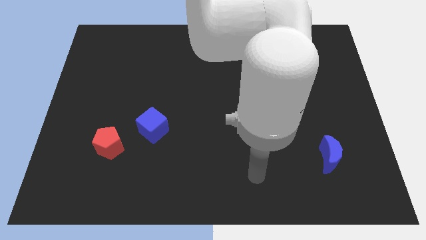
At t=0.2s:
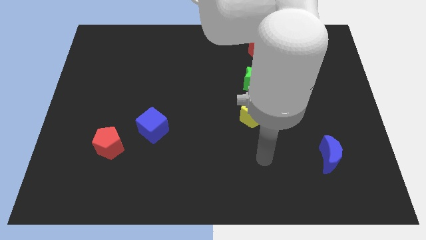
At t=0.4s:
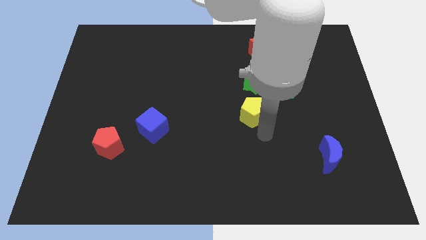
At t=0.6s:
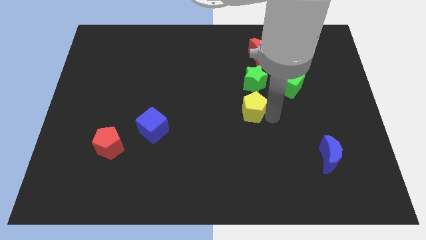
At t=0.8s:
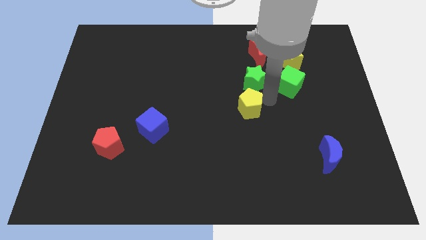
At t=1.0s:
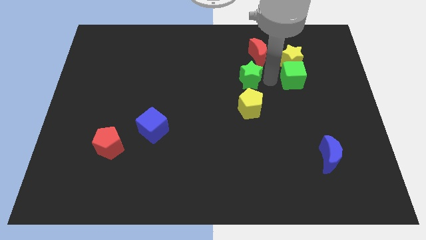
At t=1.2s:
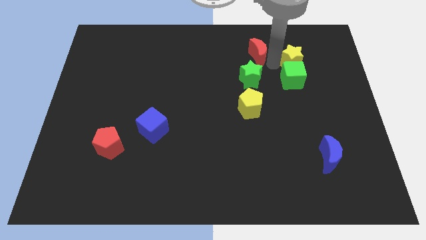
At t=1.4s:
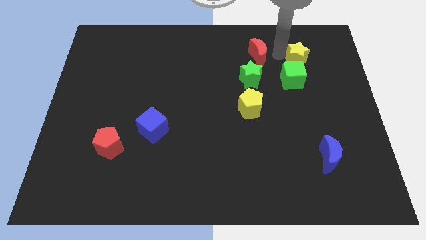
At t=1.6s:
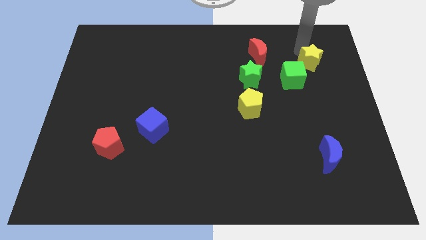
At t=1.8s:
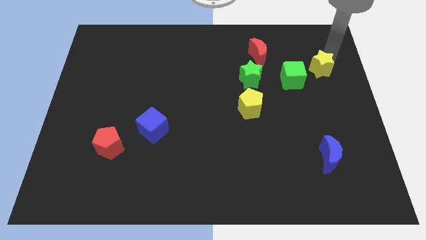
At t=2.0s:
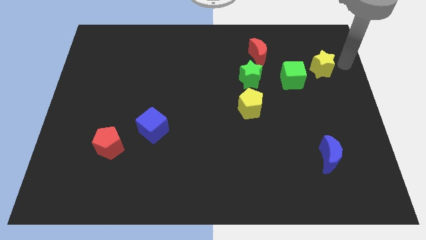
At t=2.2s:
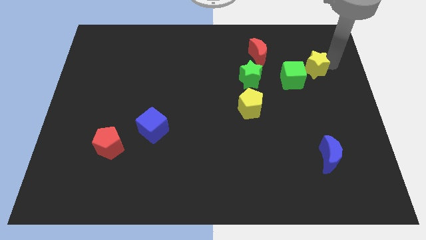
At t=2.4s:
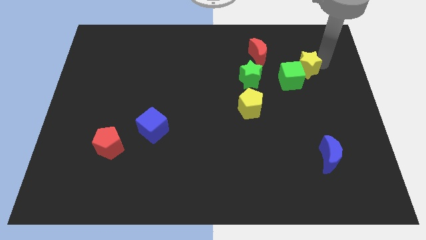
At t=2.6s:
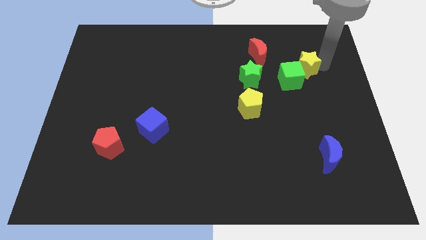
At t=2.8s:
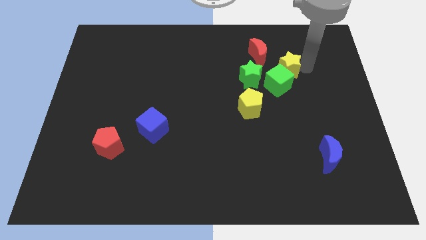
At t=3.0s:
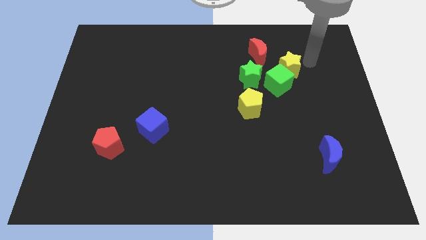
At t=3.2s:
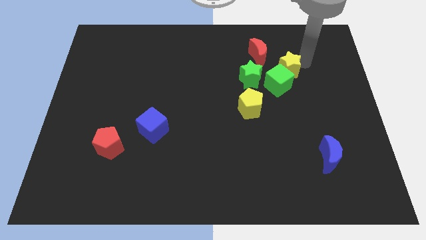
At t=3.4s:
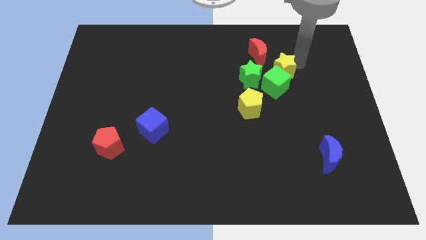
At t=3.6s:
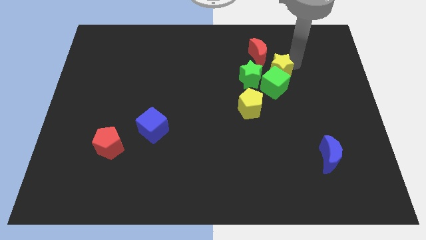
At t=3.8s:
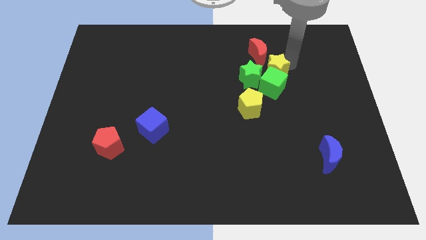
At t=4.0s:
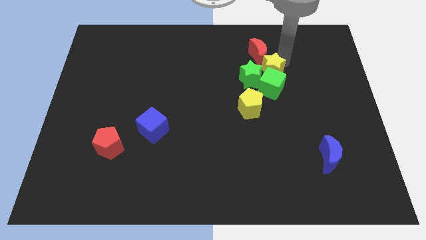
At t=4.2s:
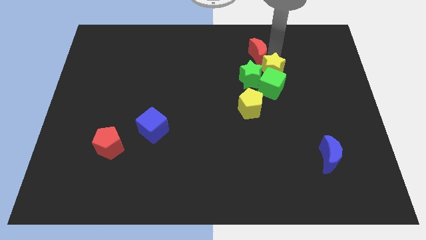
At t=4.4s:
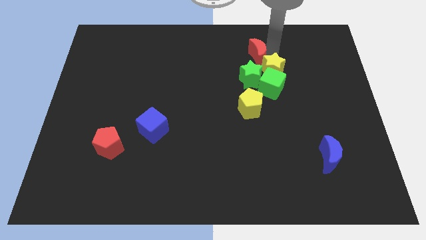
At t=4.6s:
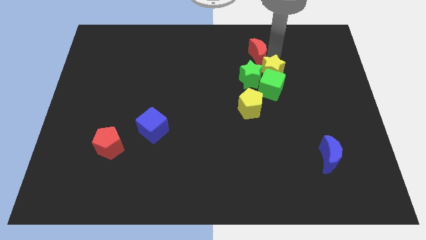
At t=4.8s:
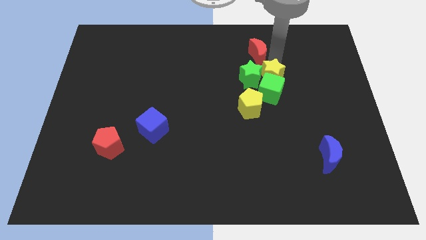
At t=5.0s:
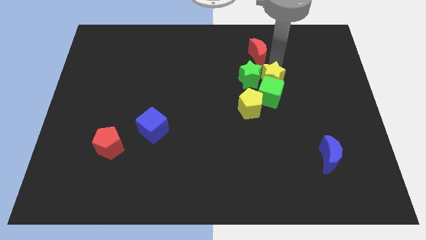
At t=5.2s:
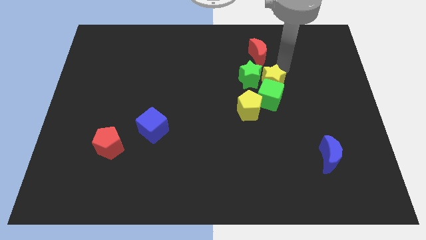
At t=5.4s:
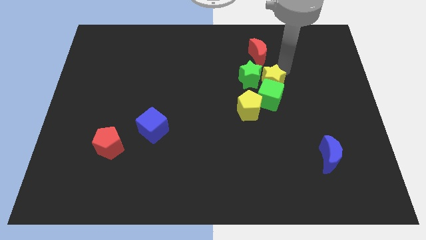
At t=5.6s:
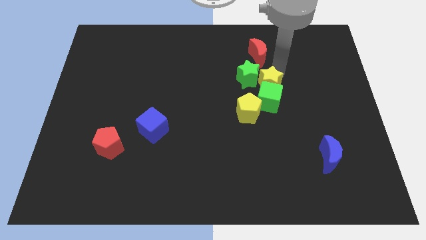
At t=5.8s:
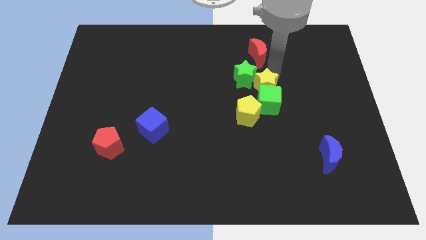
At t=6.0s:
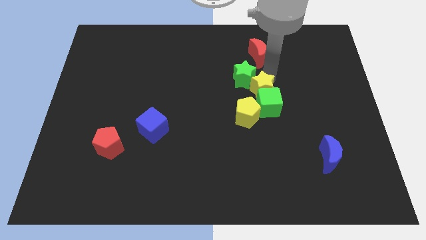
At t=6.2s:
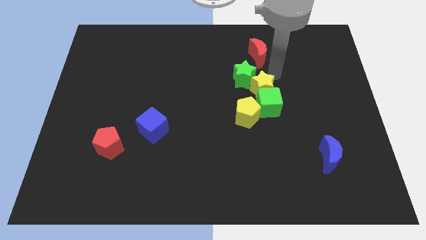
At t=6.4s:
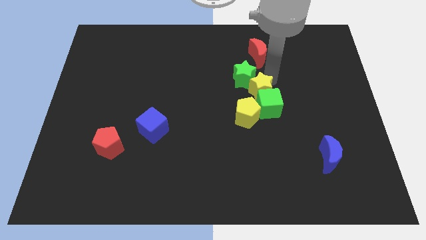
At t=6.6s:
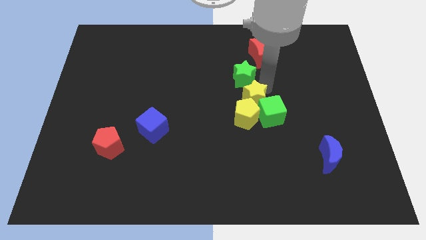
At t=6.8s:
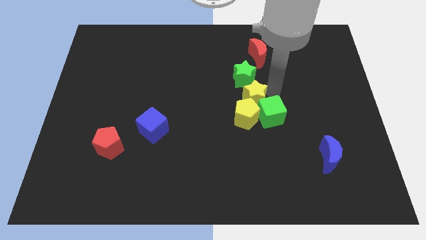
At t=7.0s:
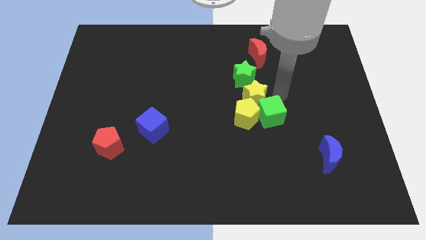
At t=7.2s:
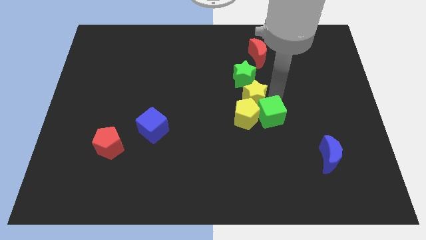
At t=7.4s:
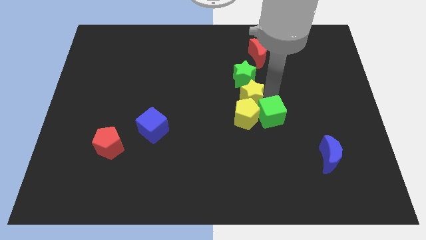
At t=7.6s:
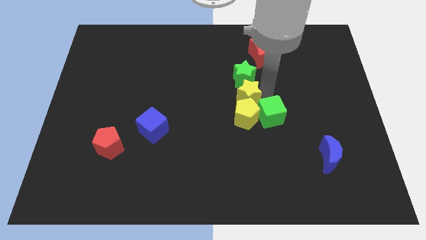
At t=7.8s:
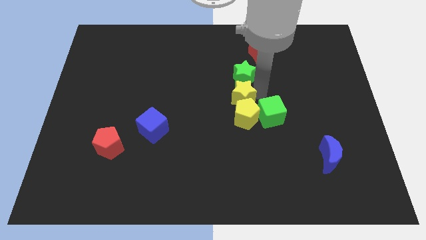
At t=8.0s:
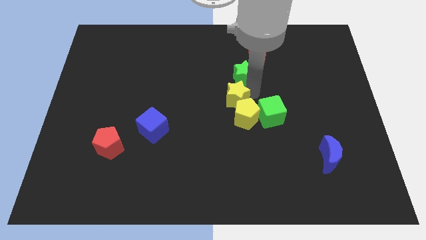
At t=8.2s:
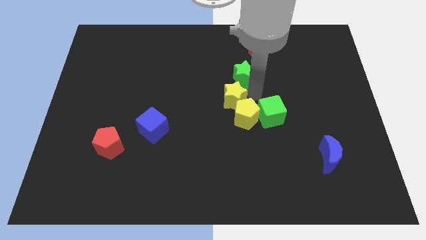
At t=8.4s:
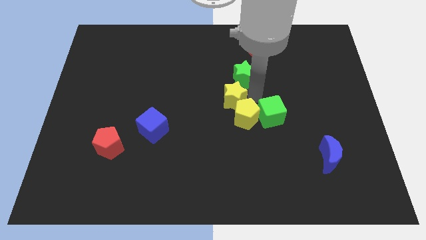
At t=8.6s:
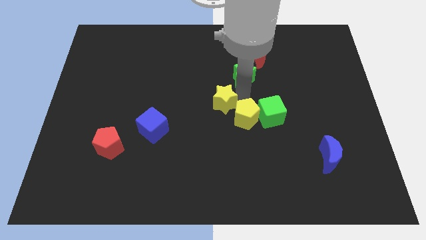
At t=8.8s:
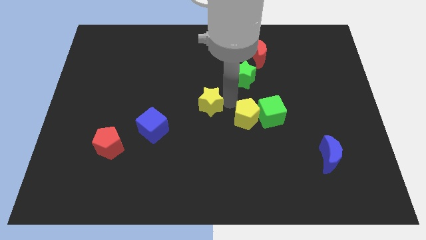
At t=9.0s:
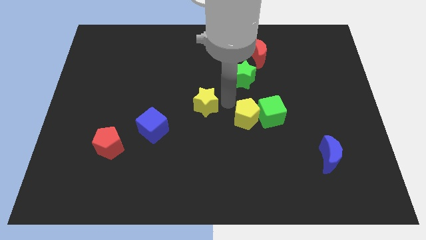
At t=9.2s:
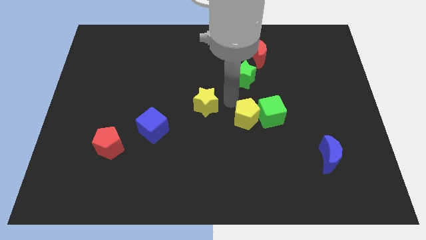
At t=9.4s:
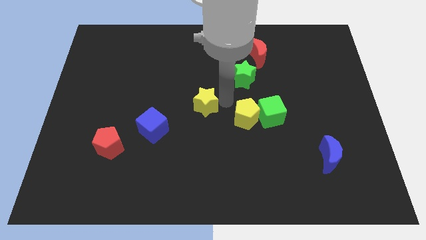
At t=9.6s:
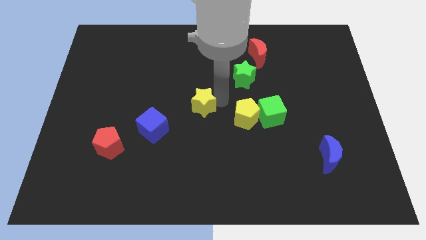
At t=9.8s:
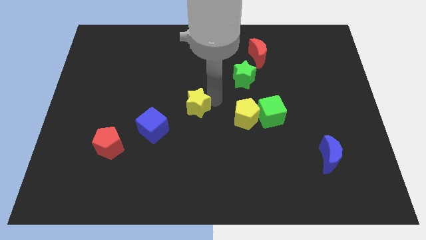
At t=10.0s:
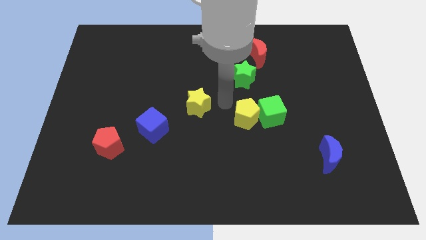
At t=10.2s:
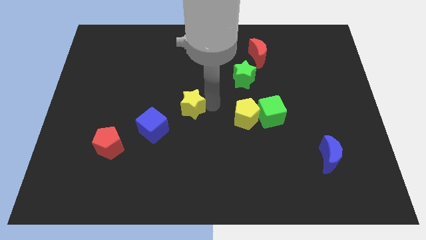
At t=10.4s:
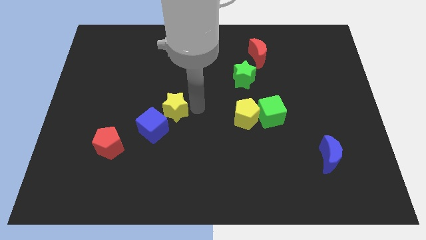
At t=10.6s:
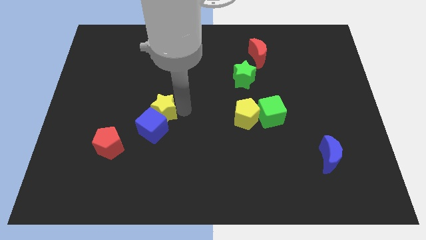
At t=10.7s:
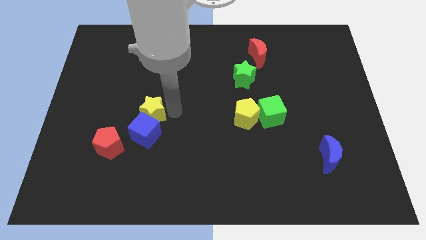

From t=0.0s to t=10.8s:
slide the yellow star diagonally up and to the right of the red pentagon

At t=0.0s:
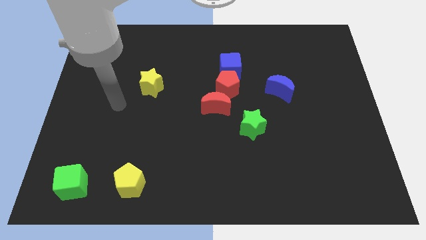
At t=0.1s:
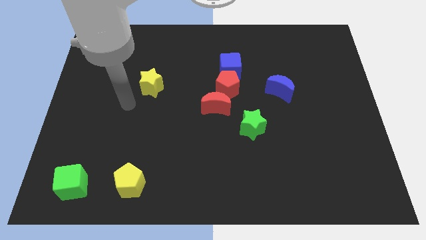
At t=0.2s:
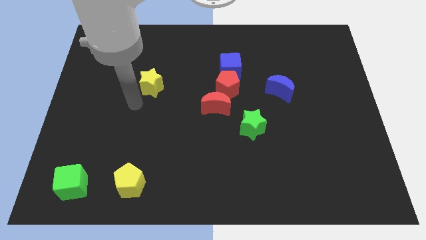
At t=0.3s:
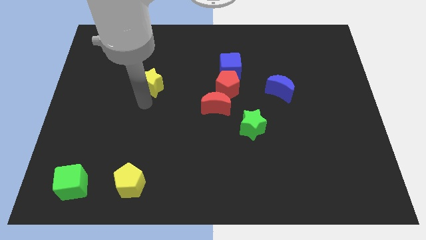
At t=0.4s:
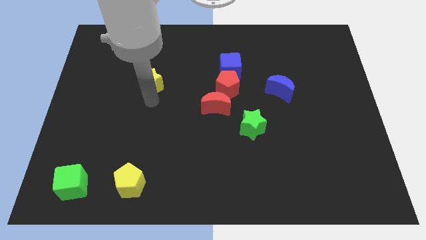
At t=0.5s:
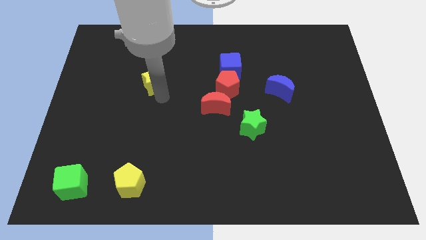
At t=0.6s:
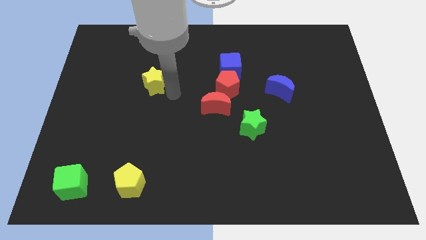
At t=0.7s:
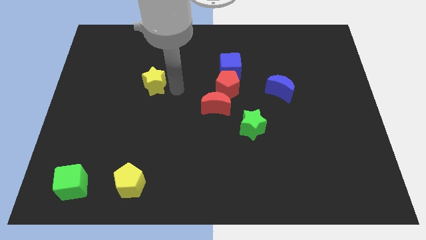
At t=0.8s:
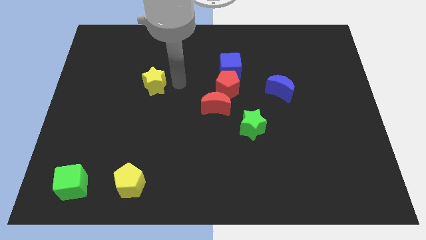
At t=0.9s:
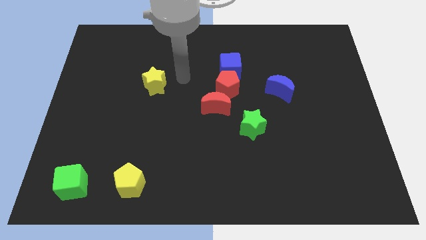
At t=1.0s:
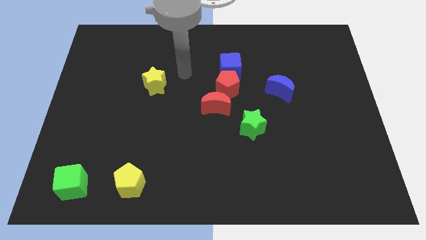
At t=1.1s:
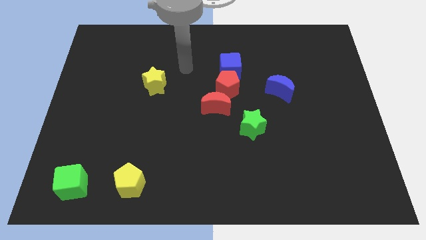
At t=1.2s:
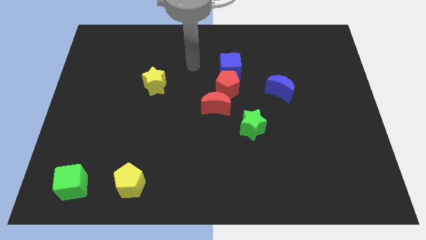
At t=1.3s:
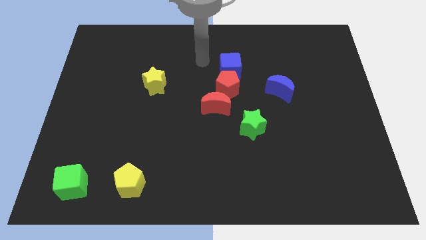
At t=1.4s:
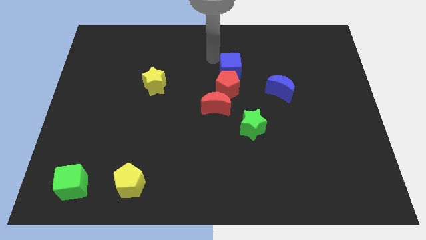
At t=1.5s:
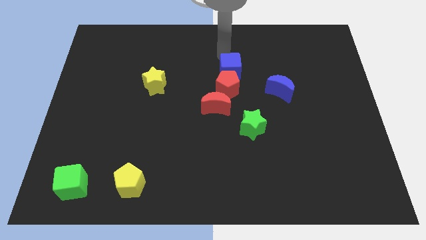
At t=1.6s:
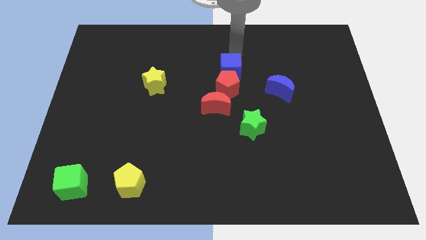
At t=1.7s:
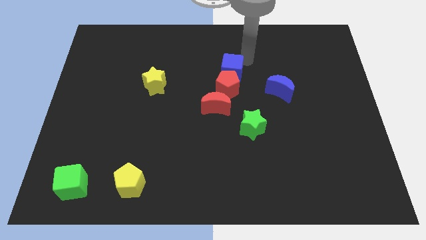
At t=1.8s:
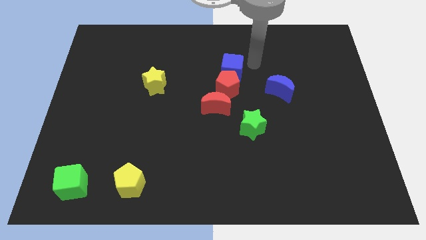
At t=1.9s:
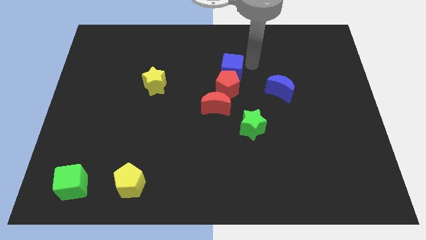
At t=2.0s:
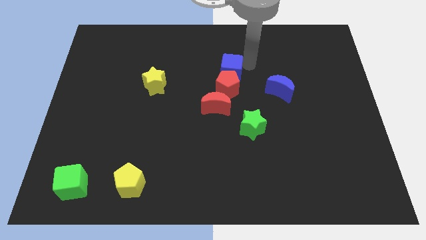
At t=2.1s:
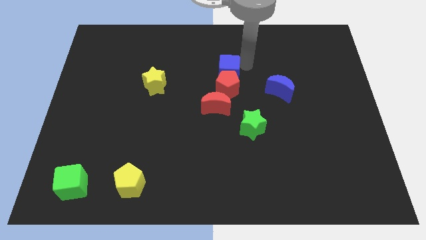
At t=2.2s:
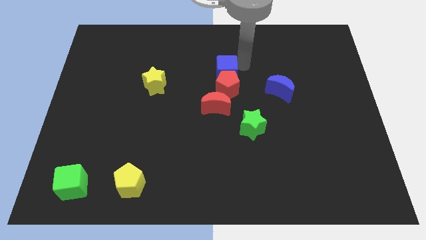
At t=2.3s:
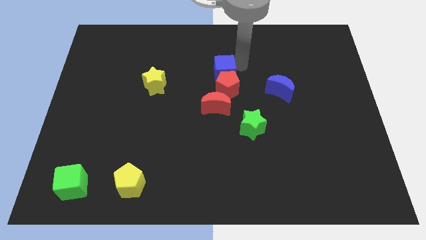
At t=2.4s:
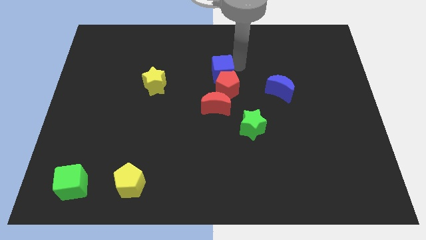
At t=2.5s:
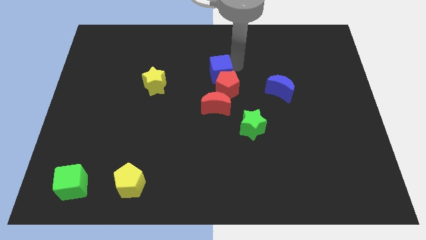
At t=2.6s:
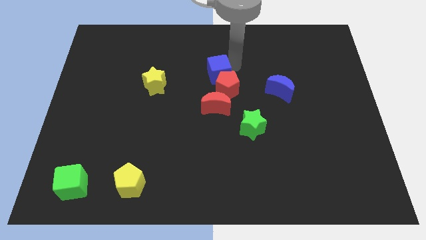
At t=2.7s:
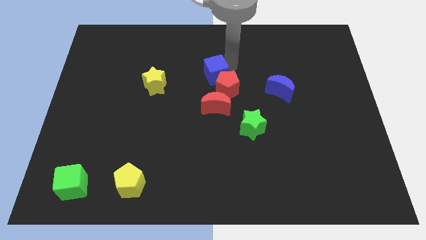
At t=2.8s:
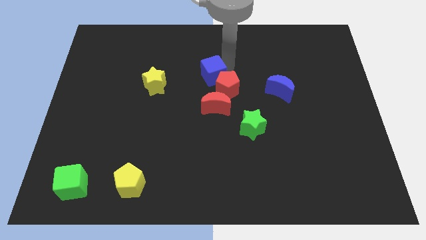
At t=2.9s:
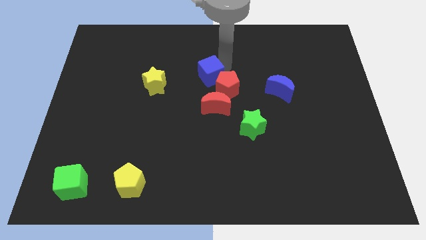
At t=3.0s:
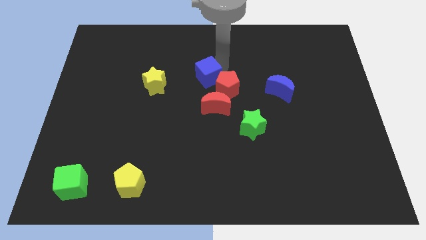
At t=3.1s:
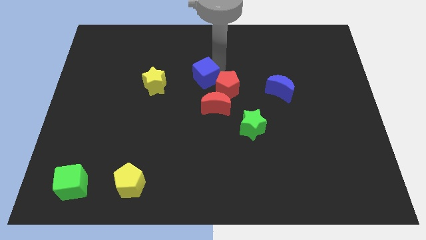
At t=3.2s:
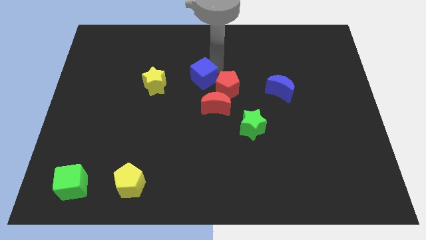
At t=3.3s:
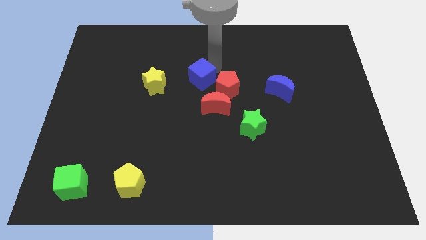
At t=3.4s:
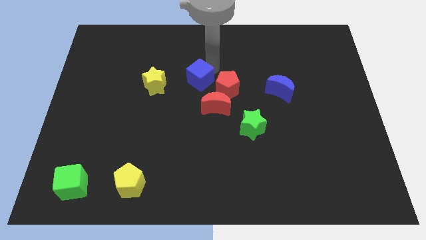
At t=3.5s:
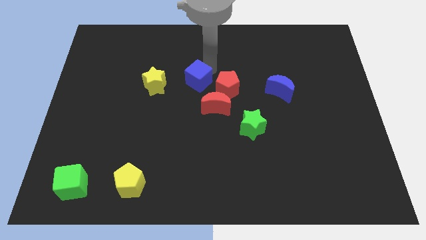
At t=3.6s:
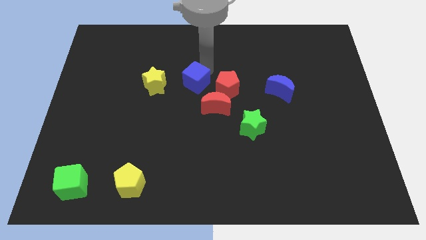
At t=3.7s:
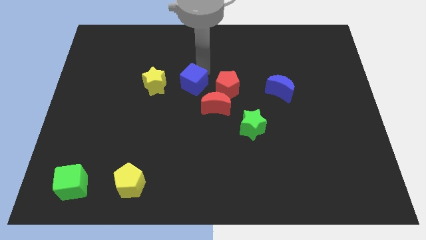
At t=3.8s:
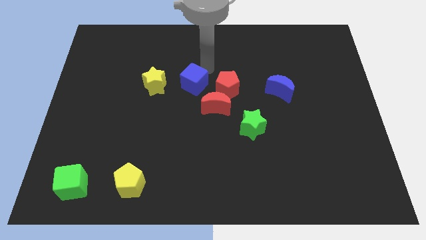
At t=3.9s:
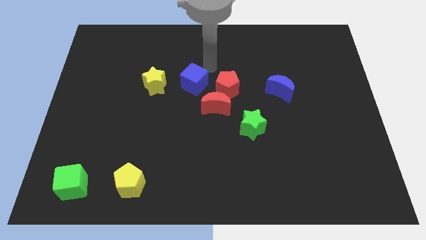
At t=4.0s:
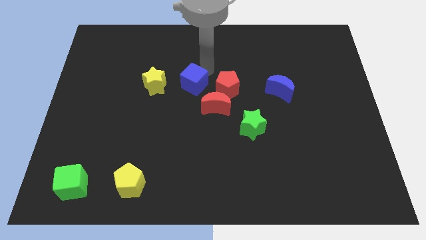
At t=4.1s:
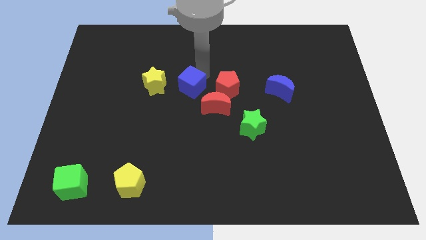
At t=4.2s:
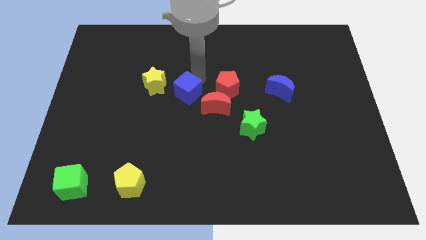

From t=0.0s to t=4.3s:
slide the blue cube to the bottom right side of the yellow star
